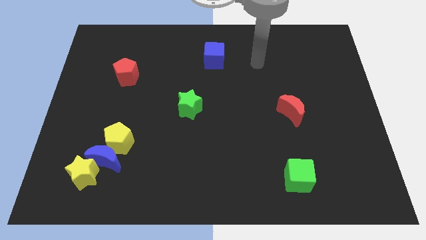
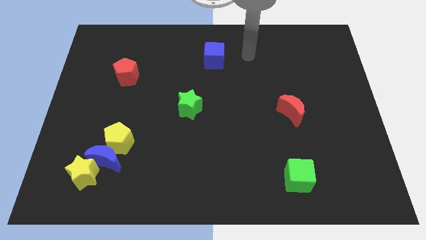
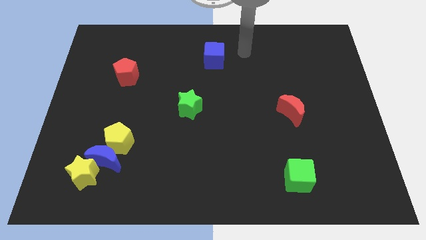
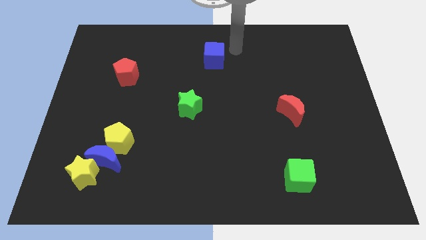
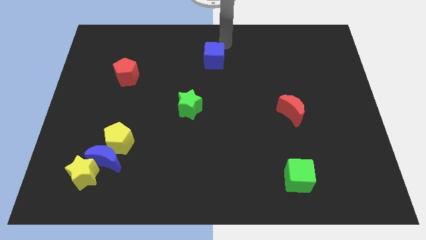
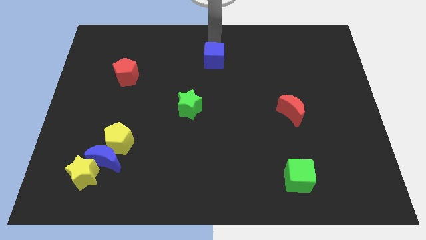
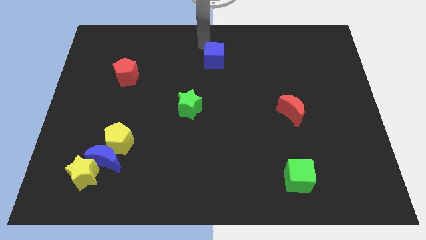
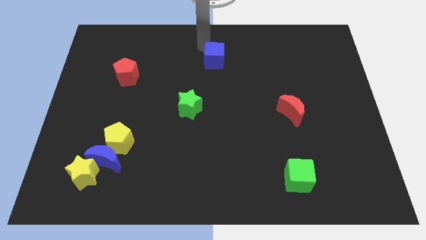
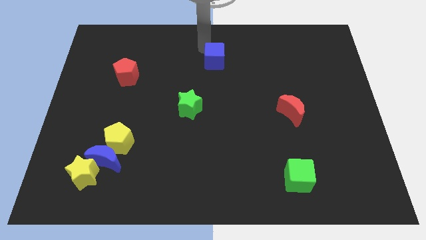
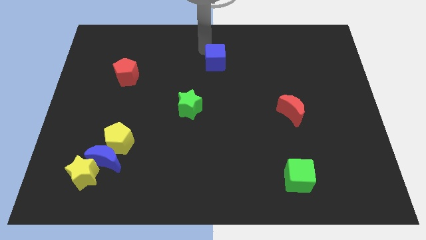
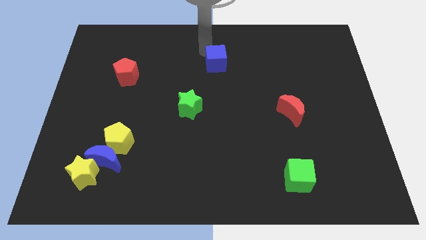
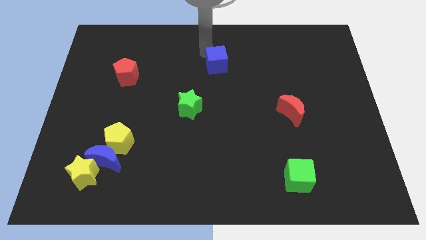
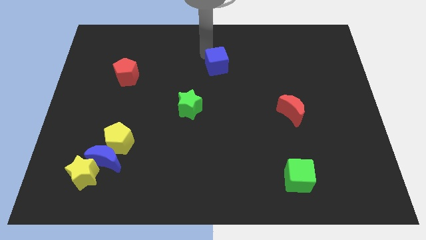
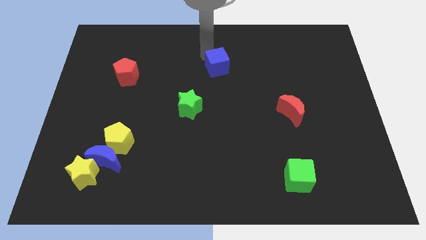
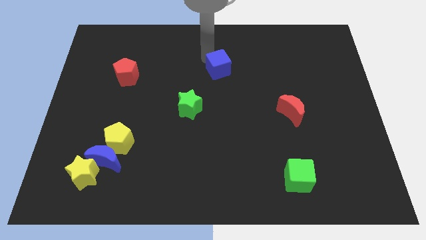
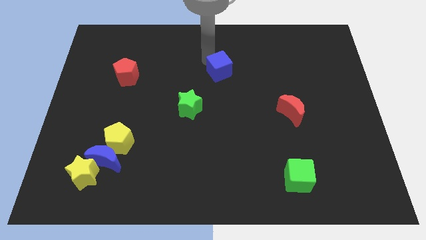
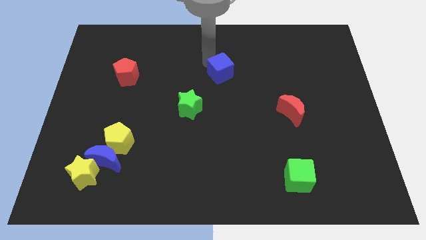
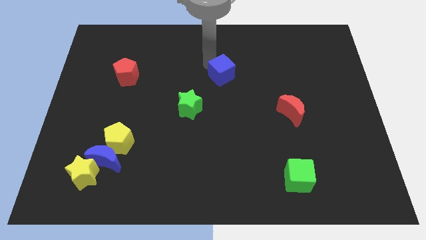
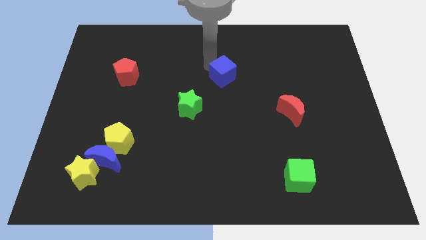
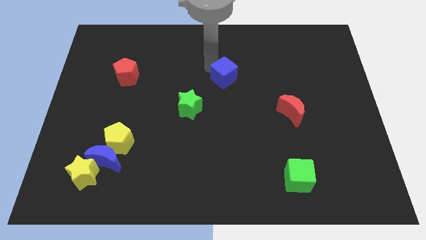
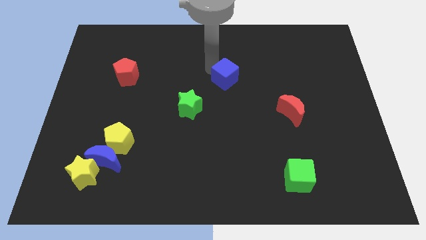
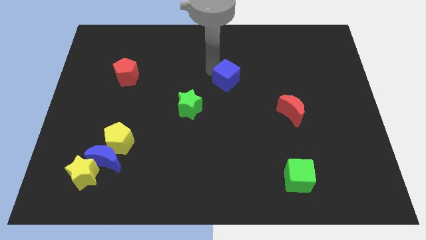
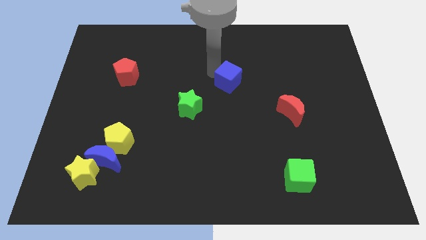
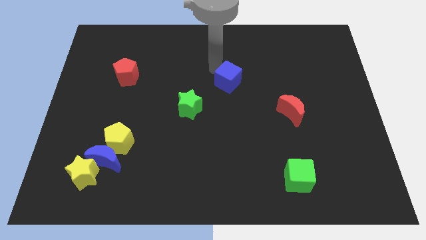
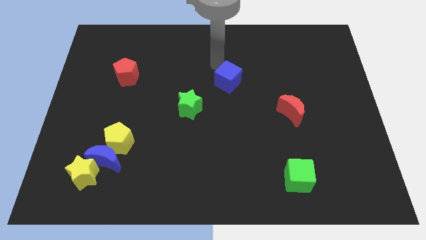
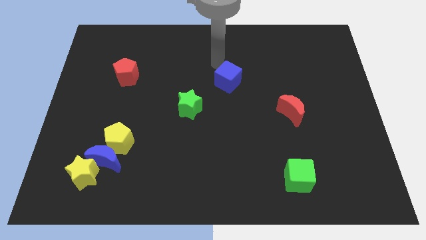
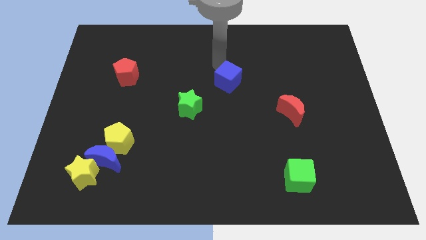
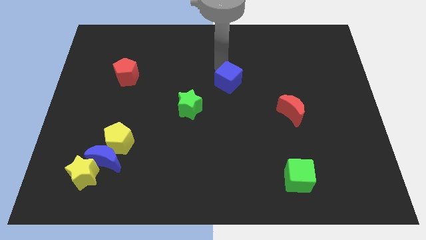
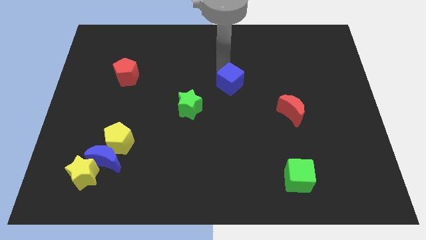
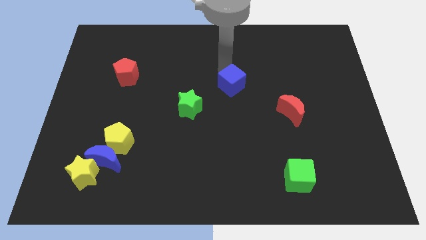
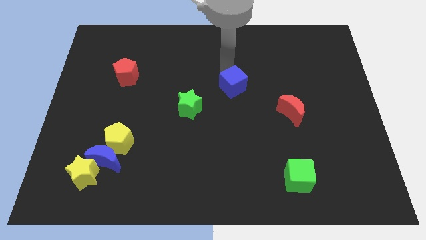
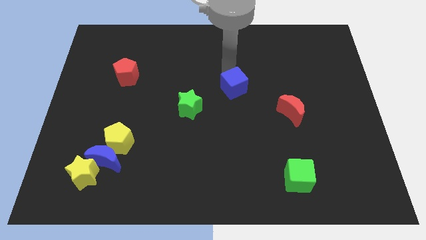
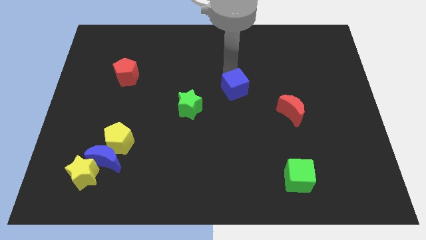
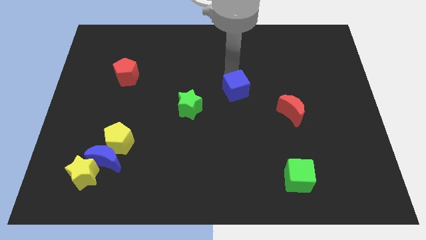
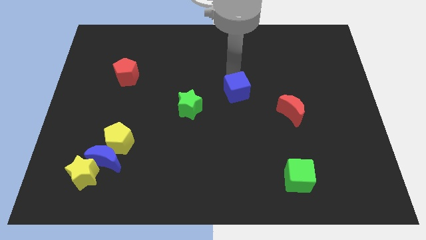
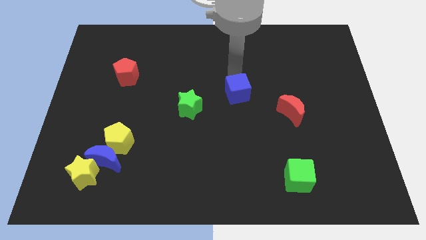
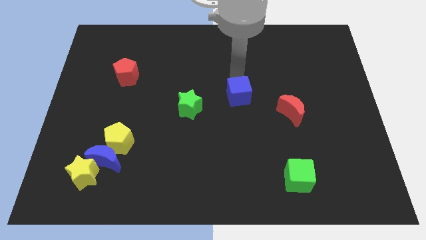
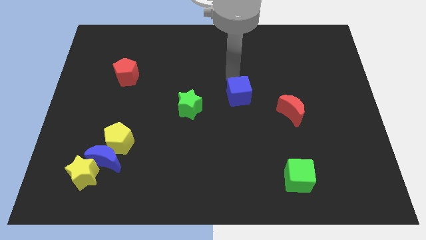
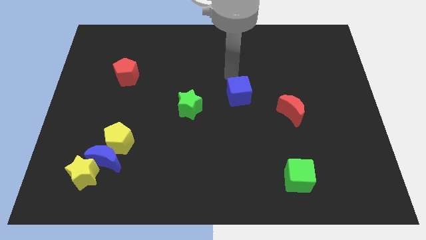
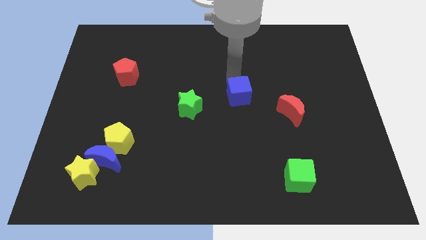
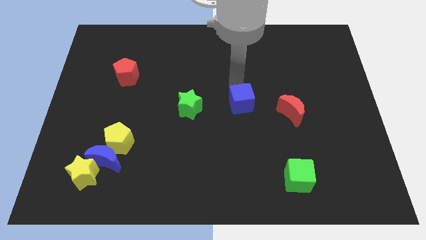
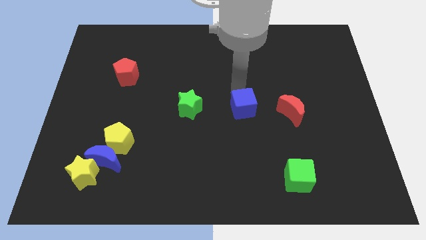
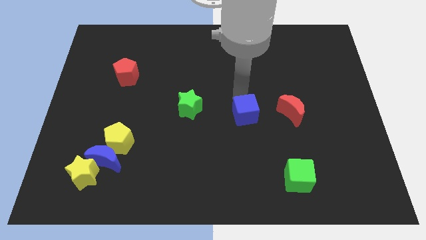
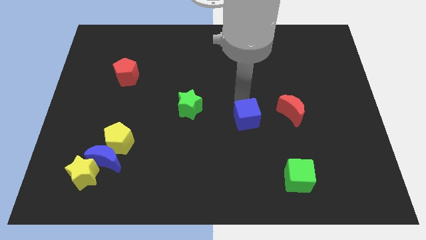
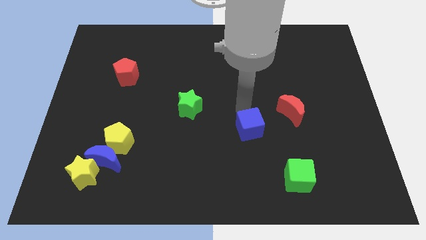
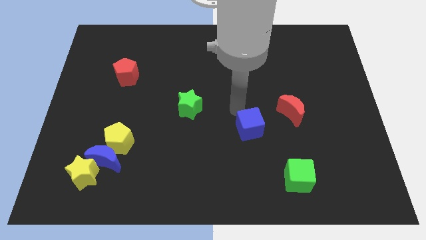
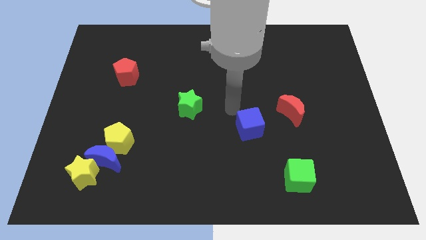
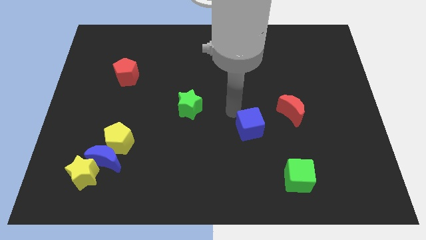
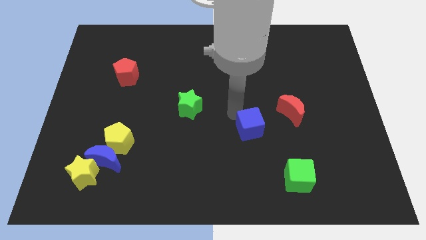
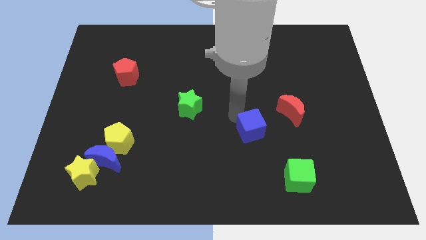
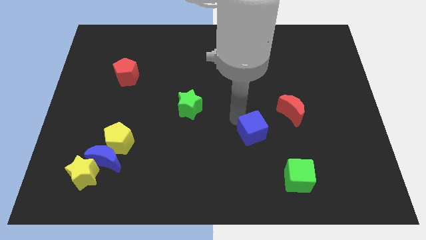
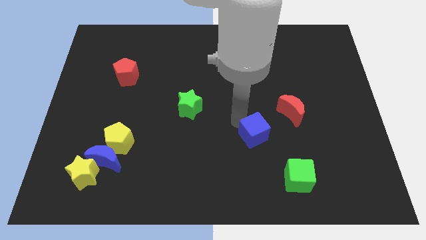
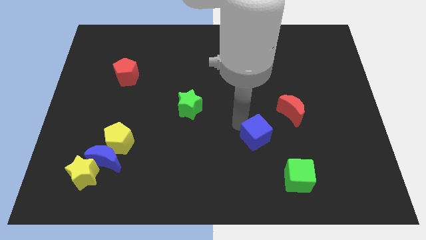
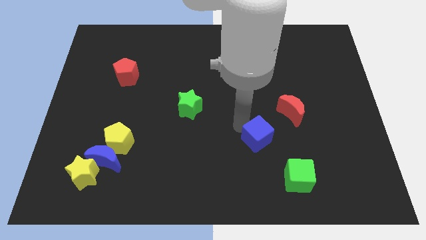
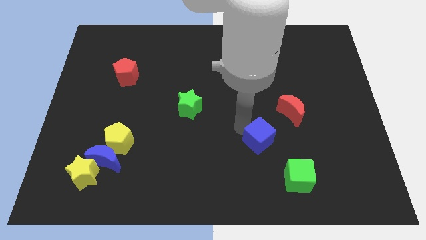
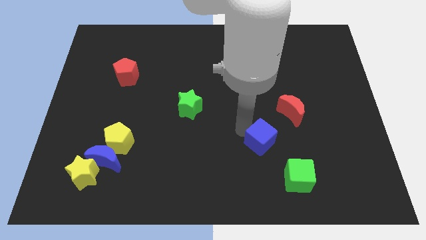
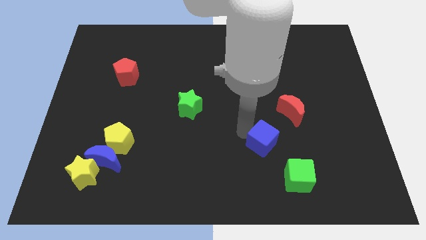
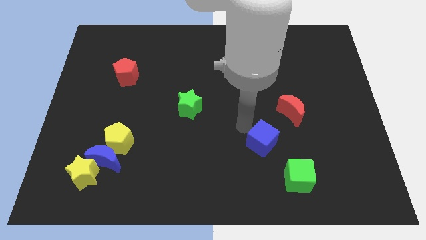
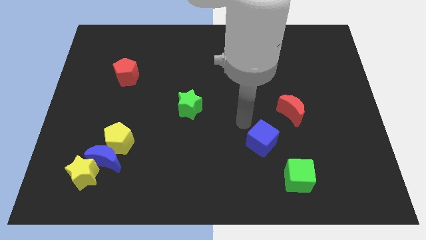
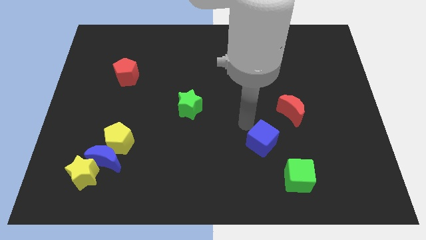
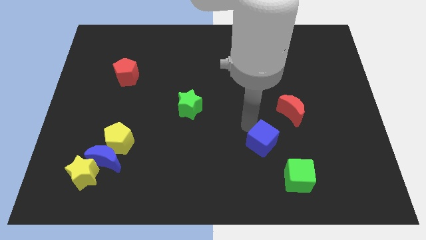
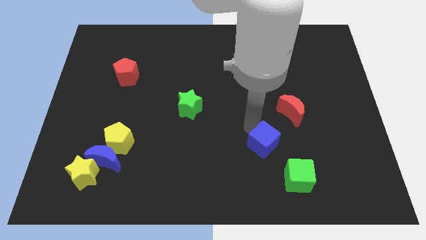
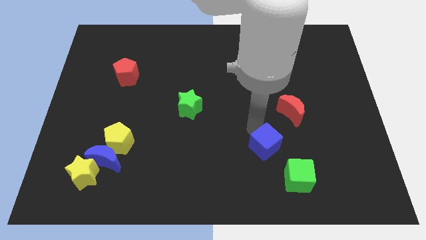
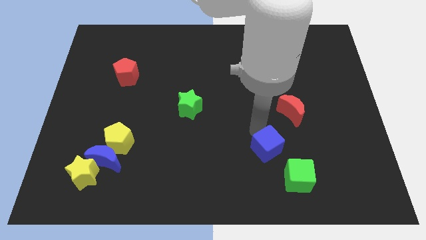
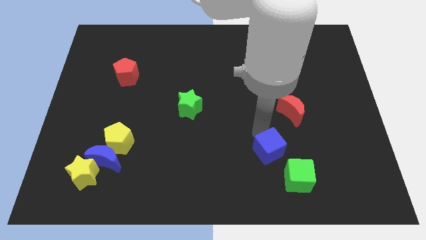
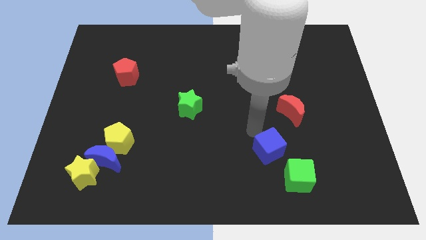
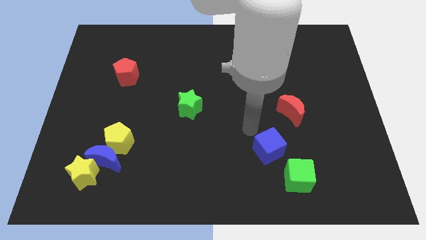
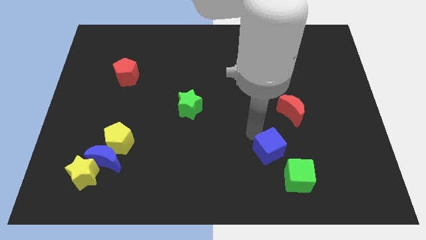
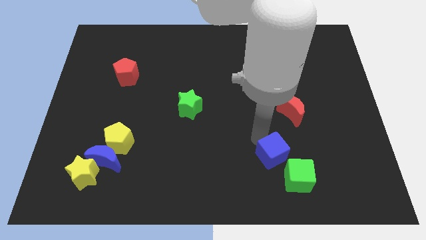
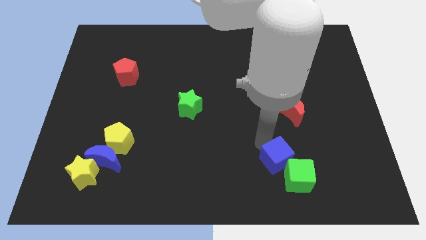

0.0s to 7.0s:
move the blue cube next to the green cube

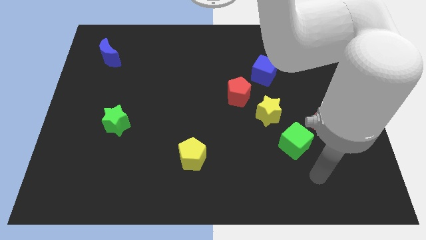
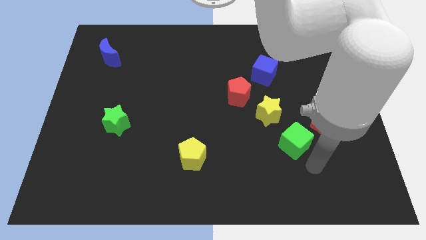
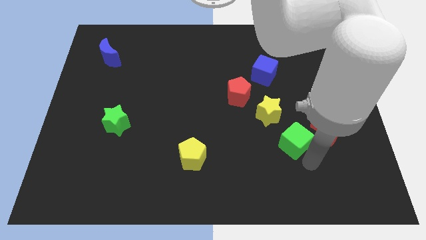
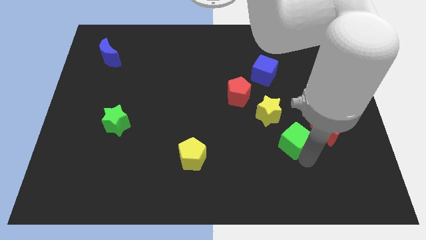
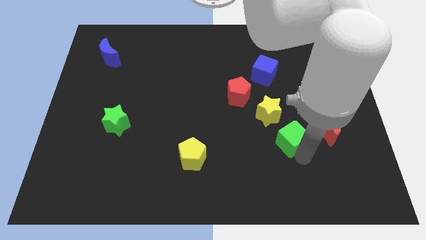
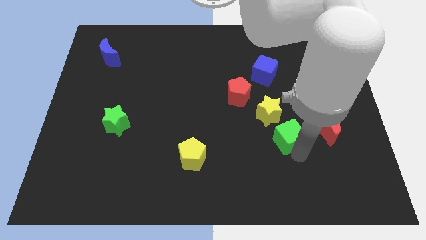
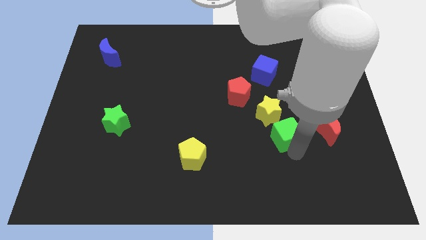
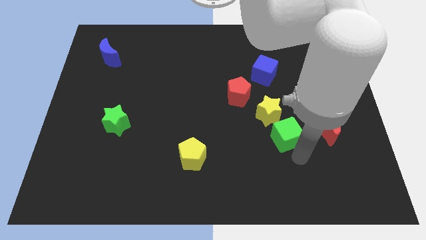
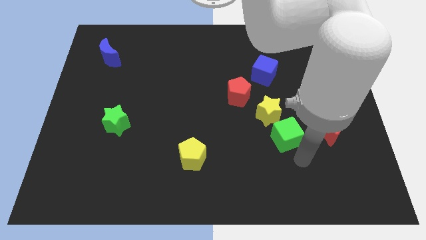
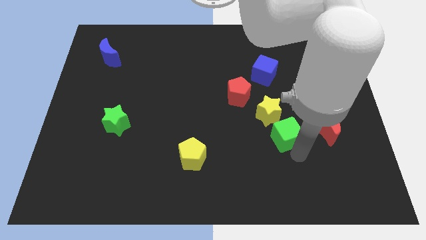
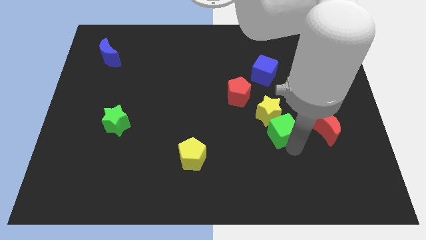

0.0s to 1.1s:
slide the green cube close to the yellow star
